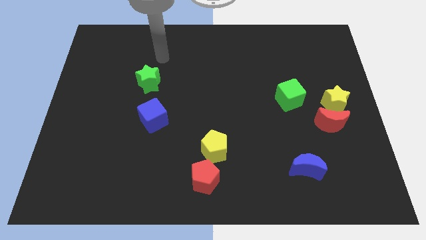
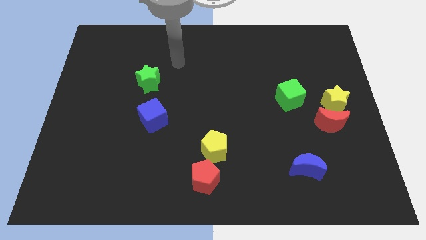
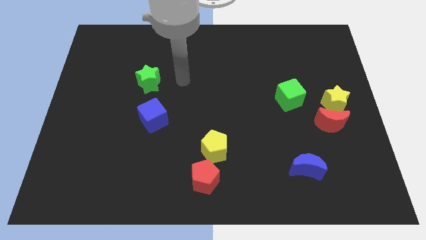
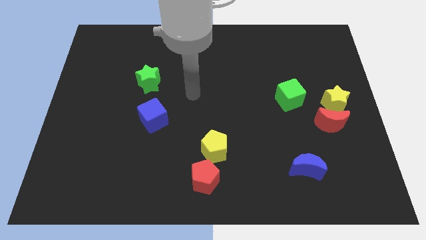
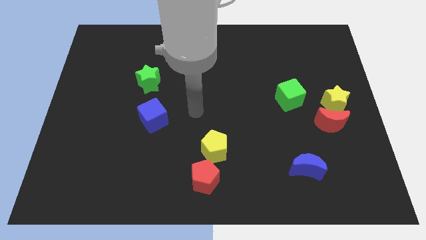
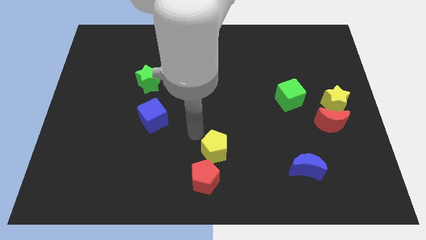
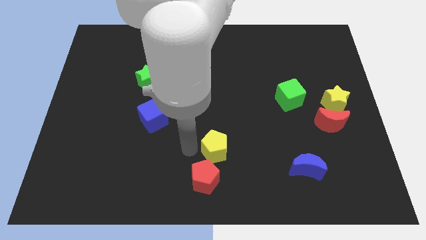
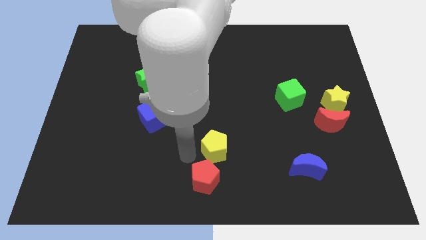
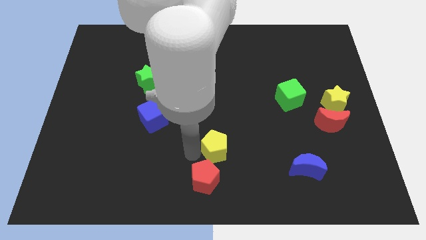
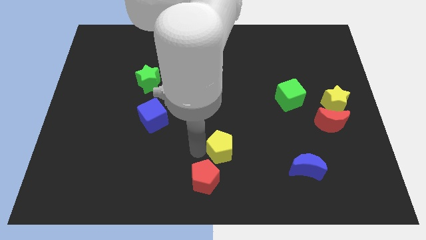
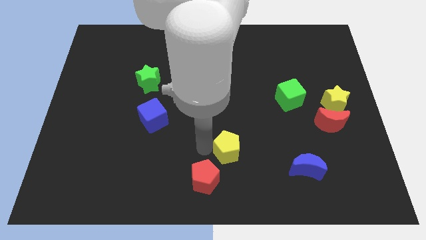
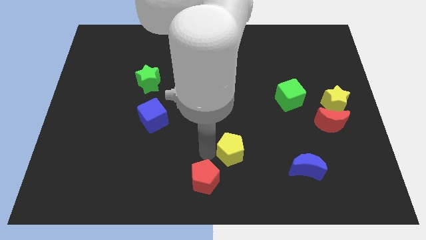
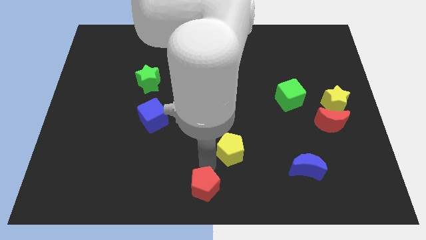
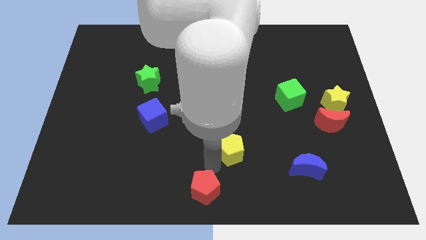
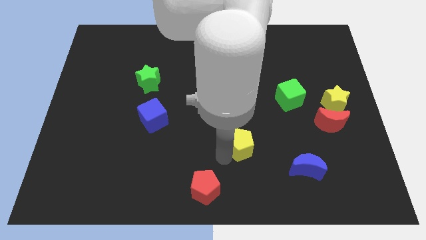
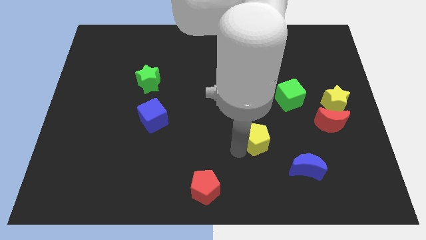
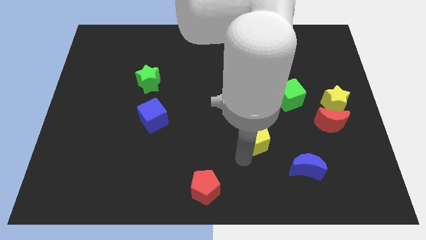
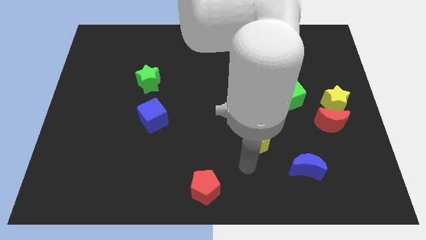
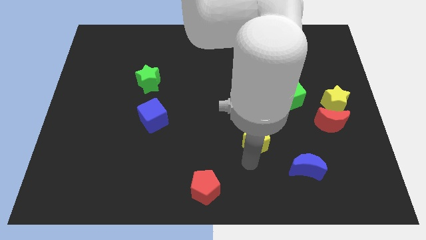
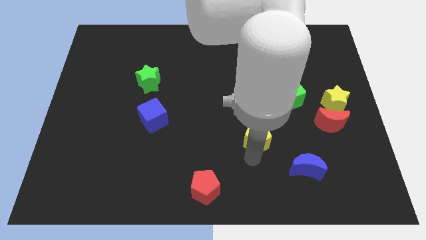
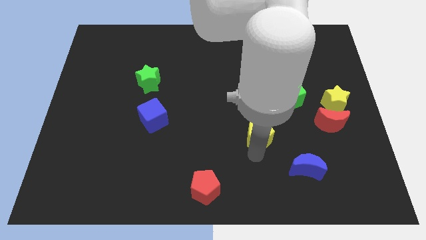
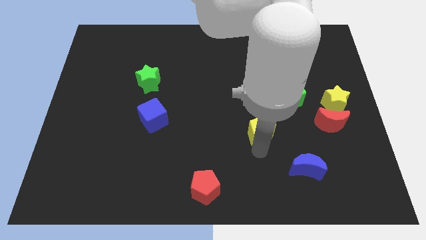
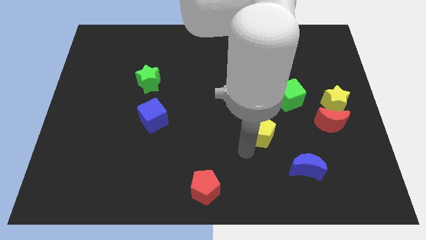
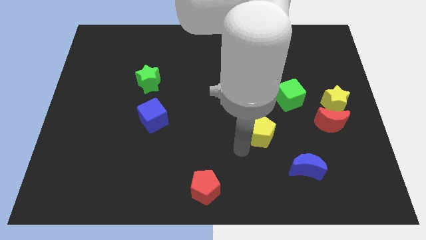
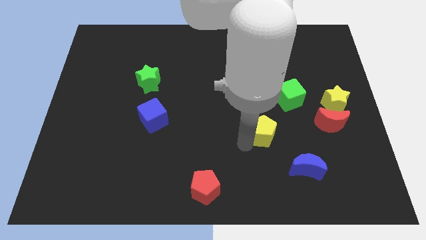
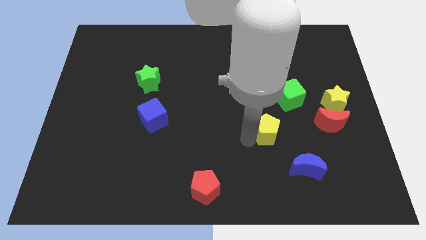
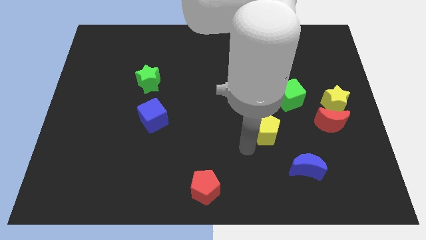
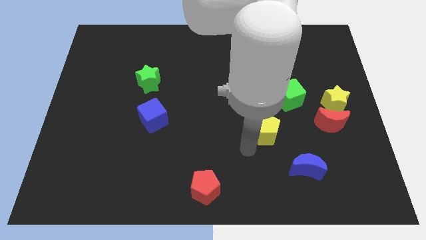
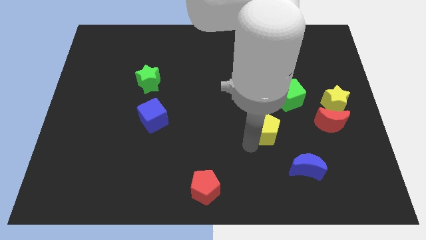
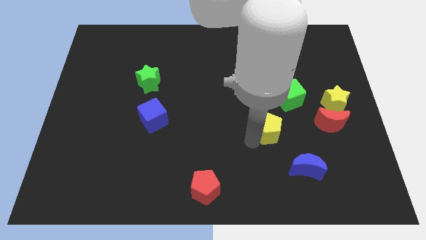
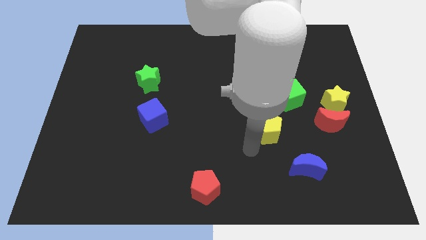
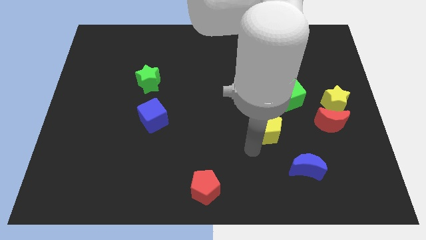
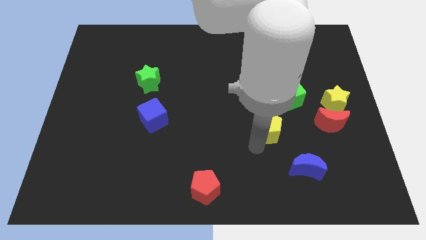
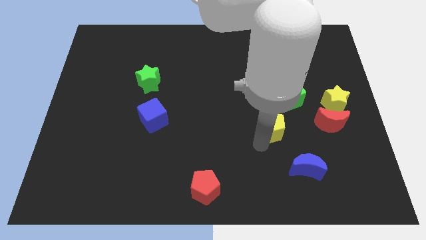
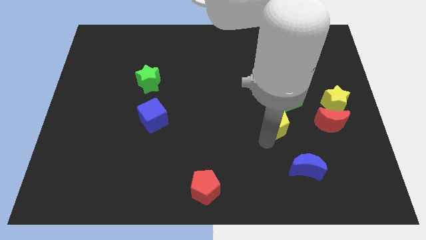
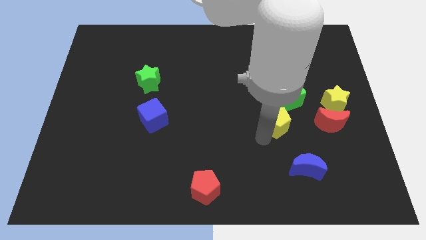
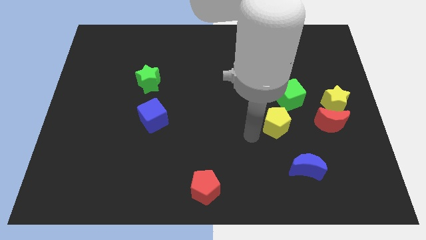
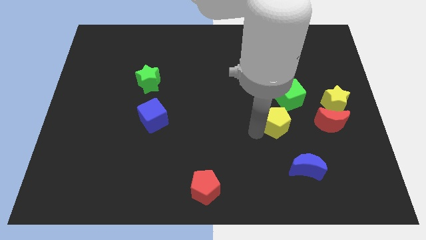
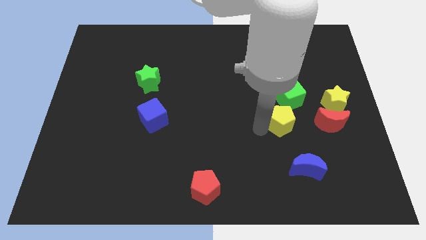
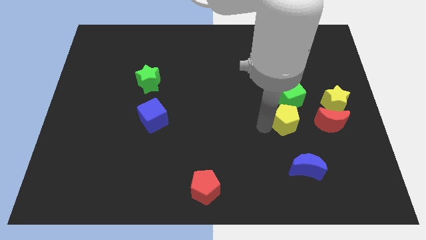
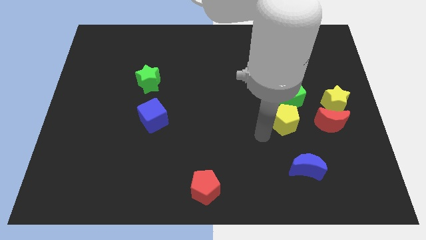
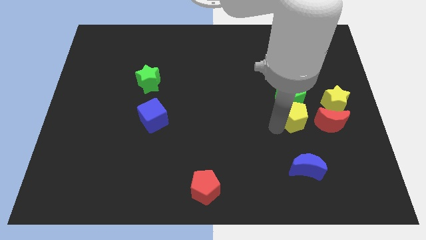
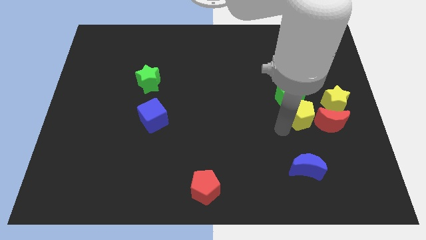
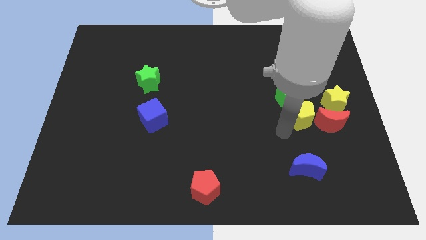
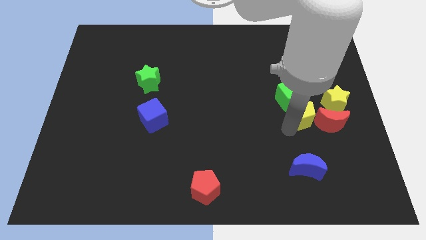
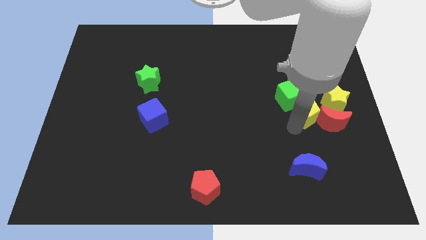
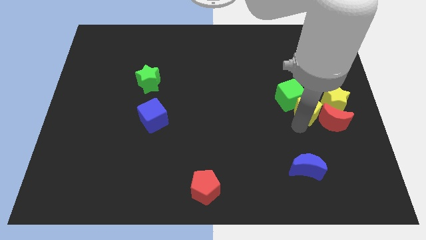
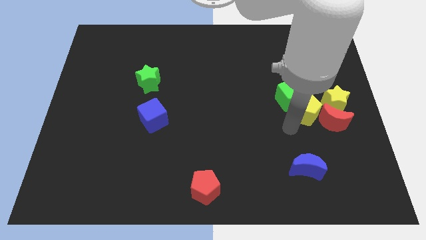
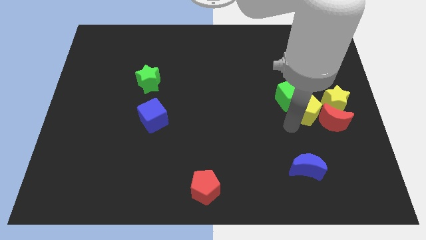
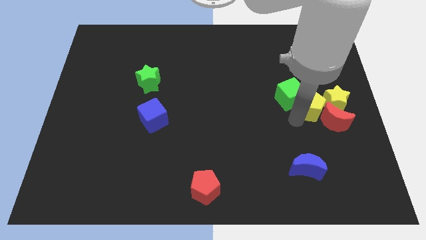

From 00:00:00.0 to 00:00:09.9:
move the yellow pentagon close to the yellow star

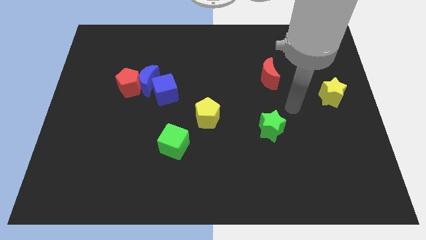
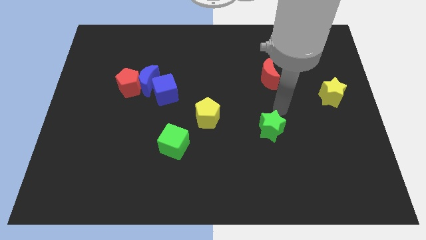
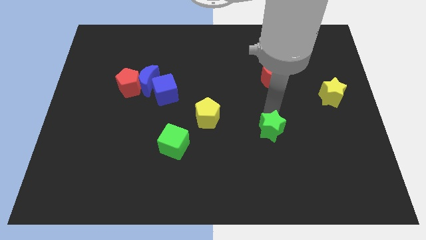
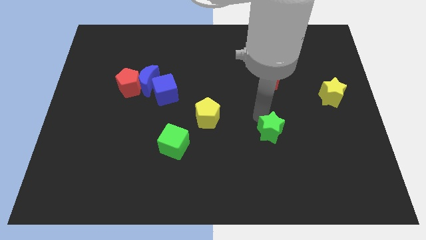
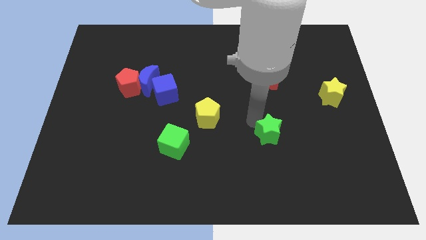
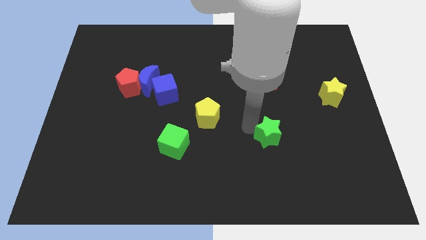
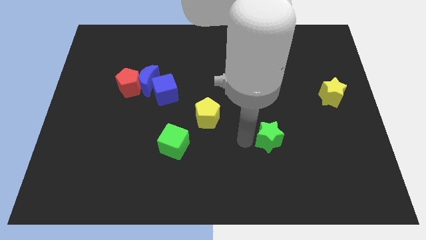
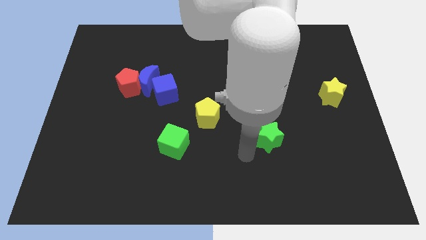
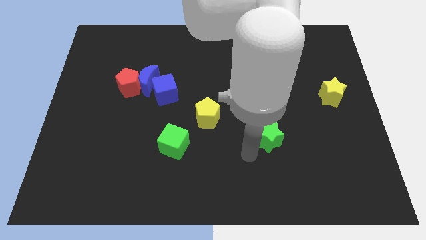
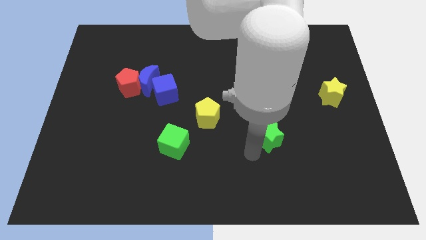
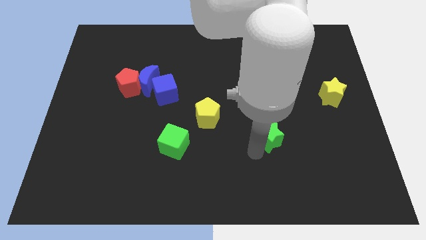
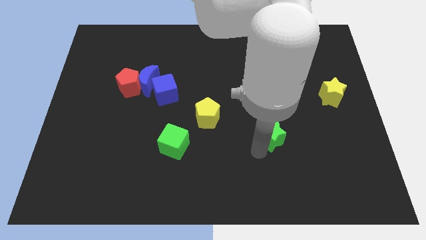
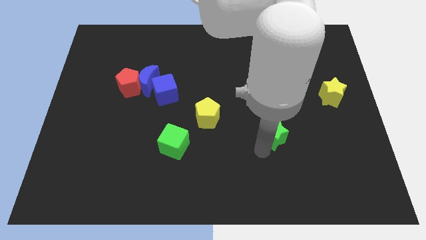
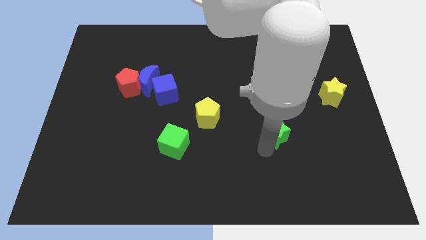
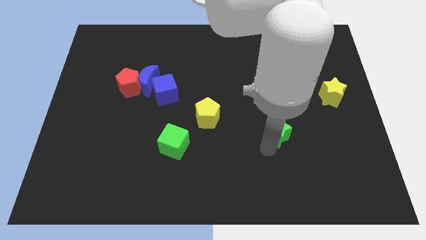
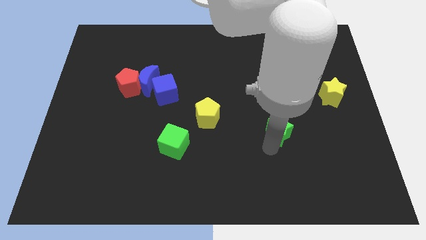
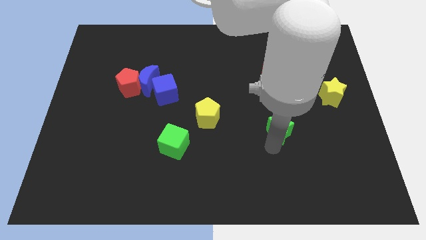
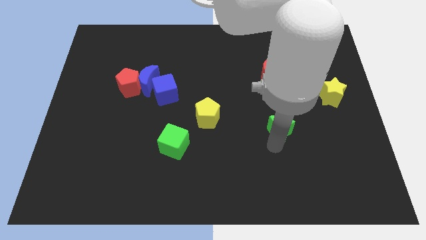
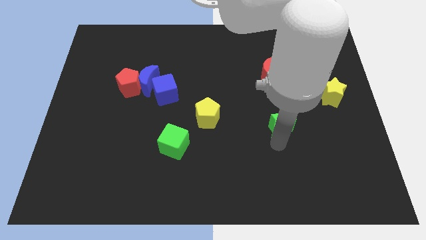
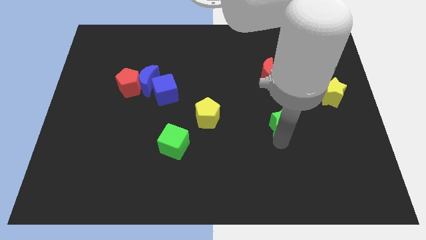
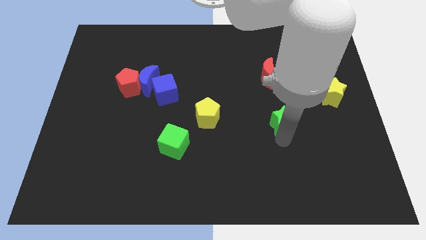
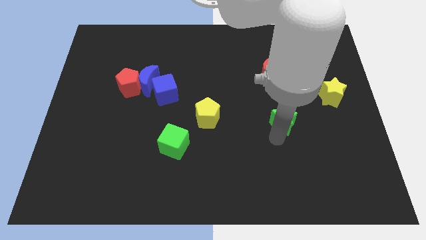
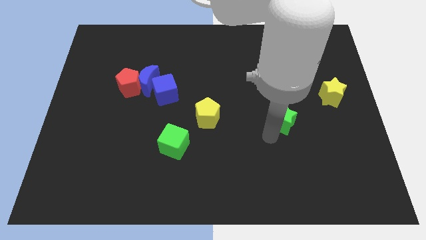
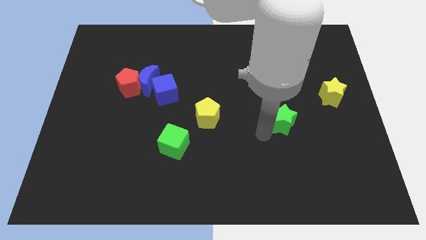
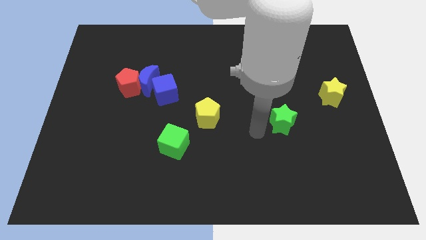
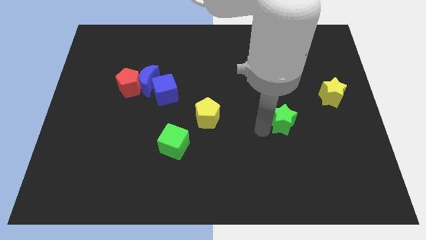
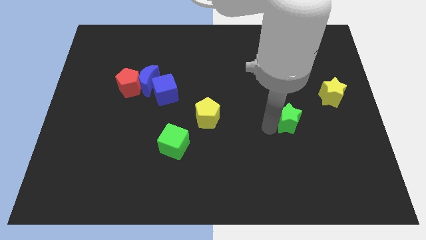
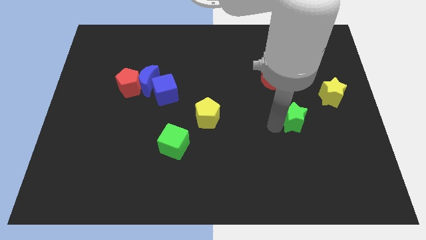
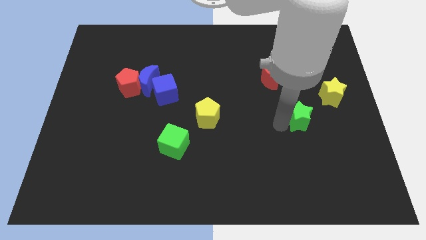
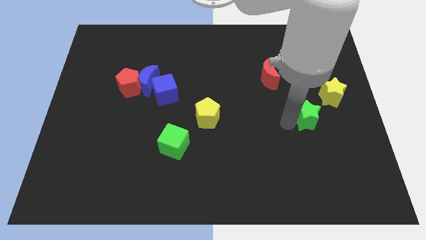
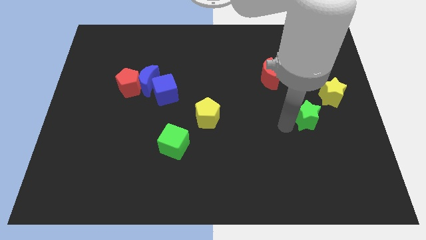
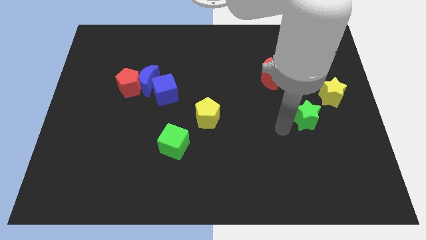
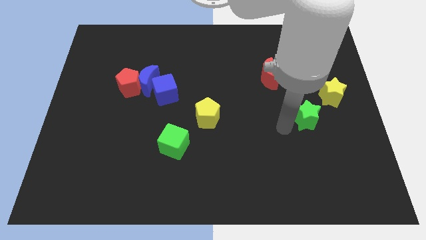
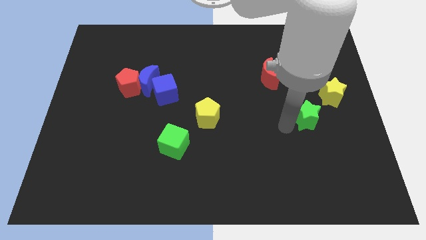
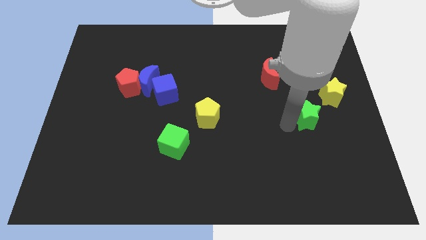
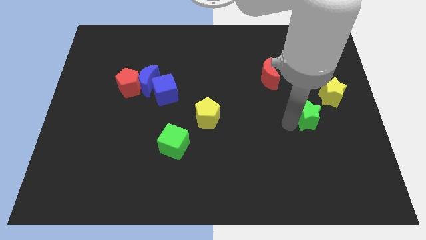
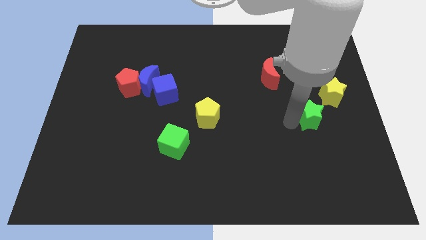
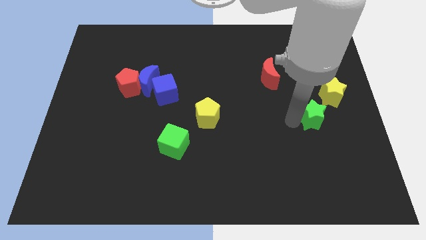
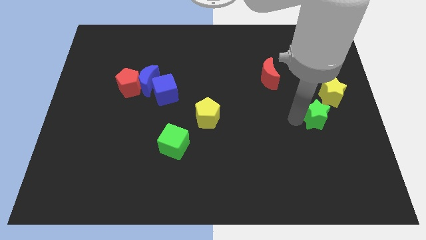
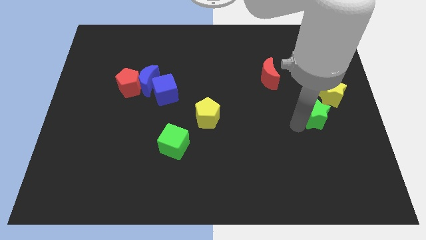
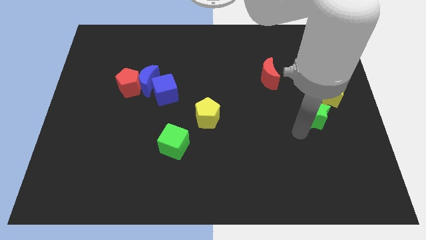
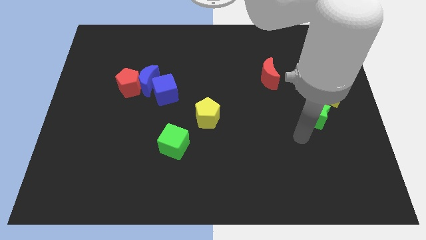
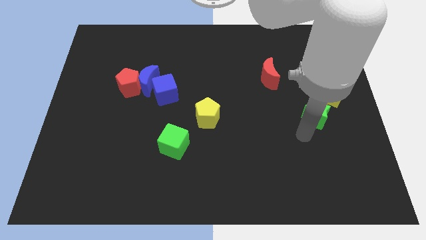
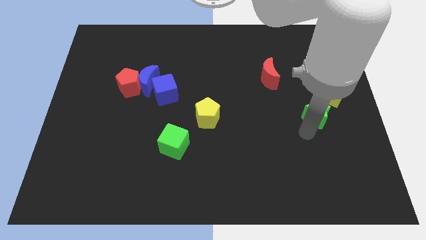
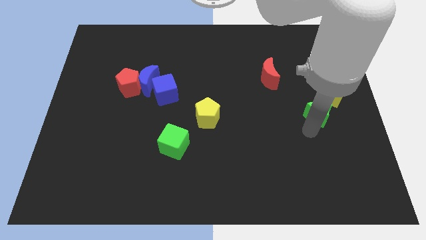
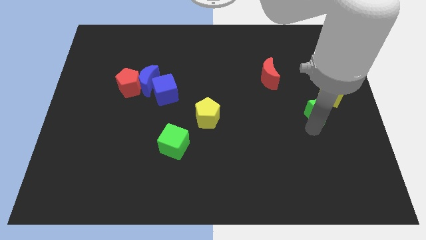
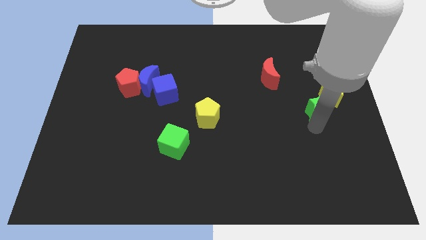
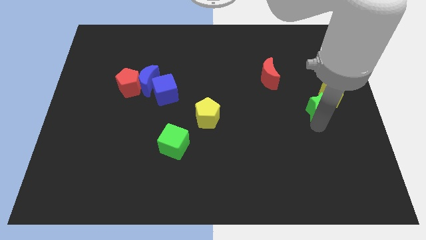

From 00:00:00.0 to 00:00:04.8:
move the green star to the yellow star
